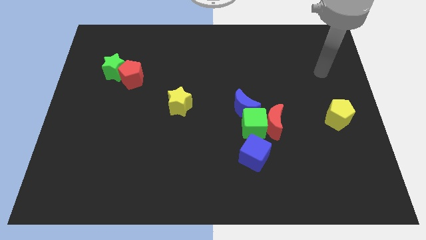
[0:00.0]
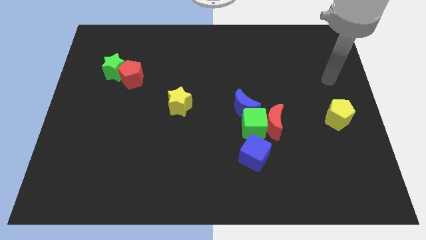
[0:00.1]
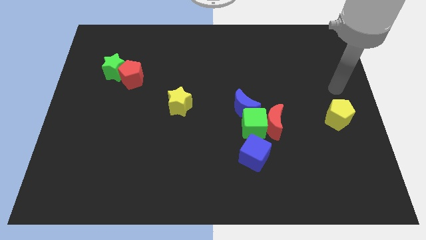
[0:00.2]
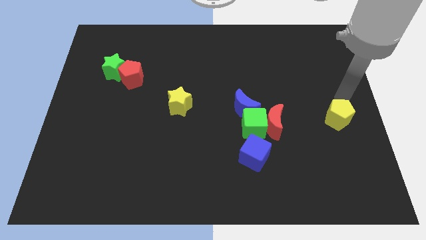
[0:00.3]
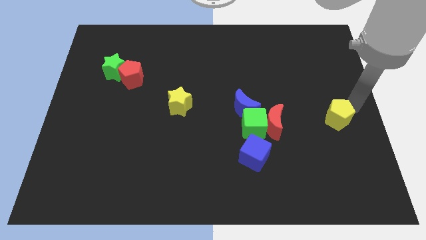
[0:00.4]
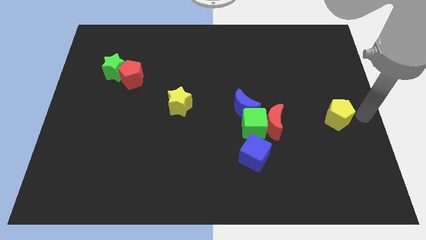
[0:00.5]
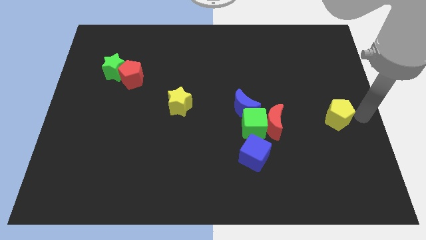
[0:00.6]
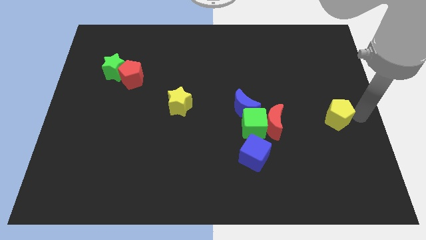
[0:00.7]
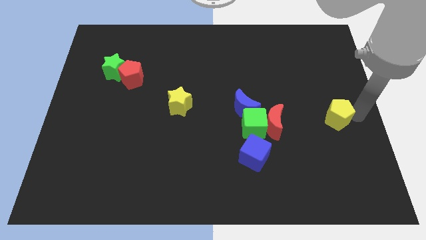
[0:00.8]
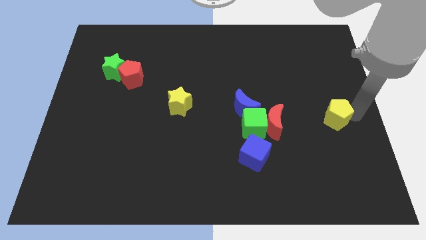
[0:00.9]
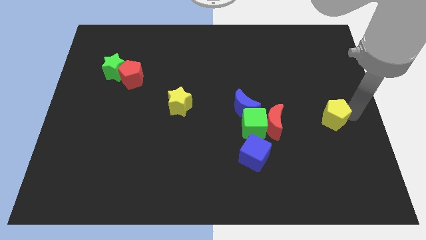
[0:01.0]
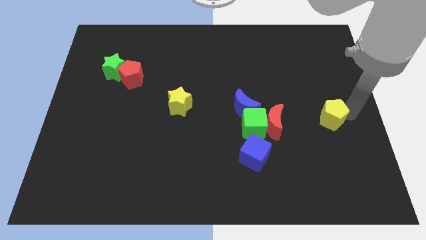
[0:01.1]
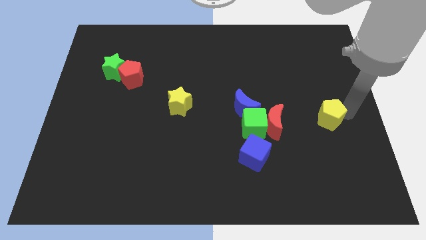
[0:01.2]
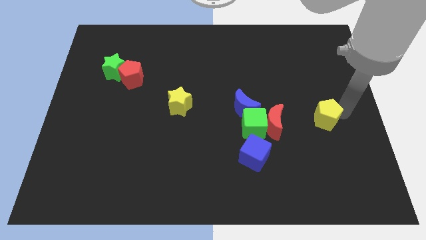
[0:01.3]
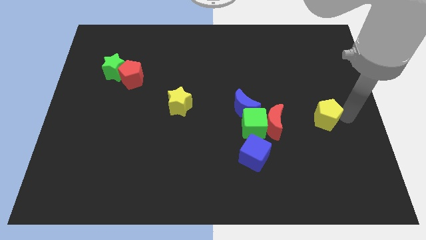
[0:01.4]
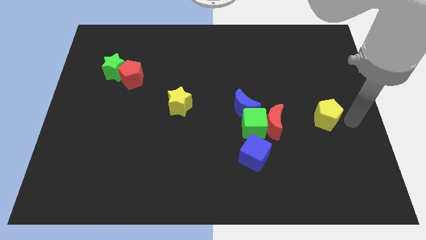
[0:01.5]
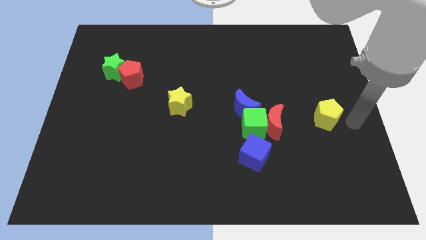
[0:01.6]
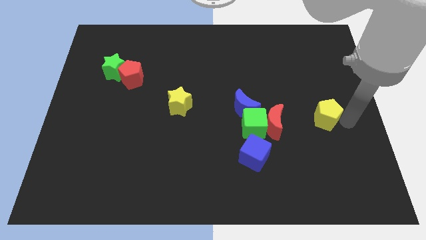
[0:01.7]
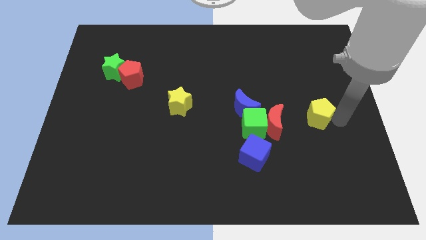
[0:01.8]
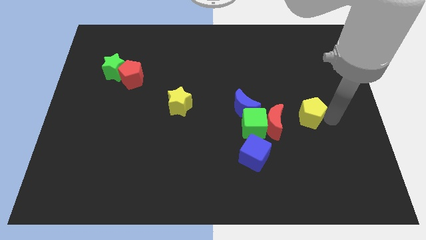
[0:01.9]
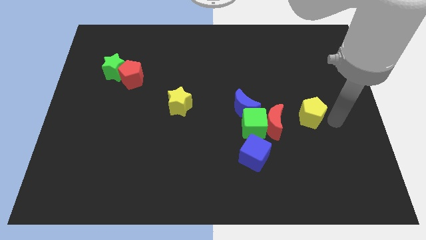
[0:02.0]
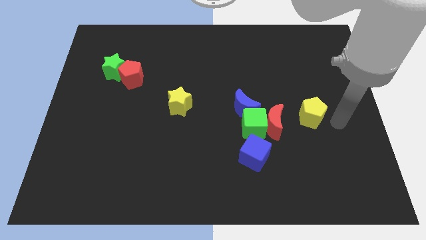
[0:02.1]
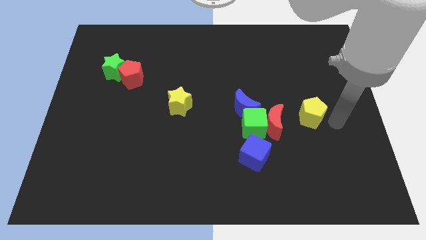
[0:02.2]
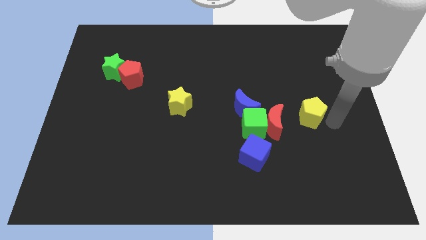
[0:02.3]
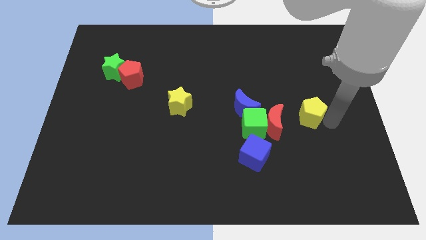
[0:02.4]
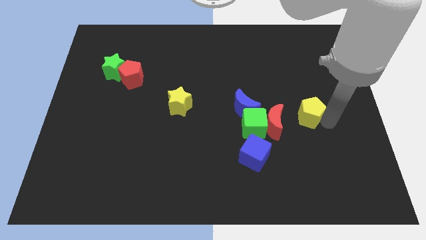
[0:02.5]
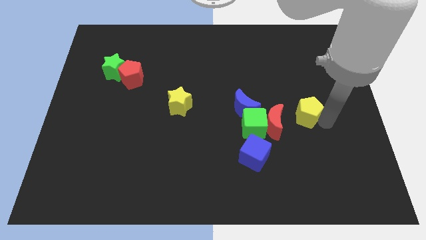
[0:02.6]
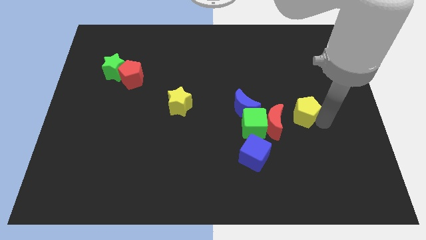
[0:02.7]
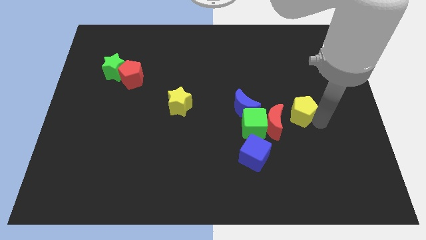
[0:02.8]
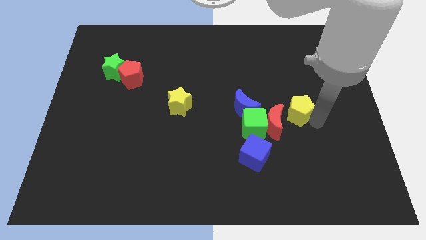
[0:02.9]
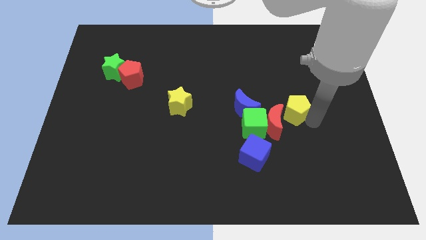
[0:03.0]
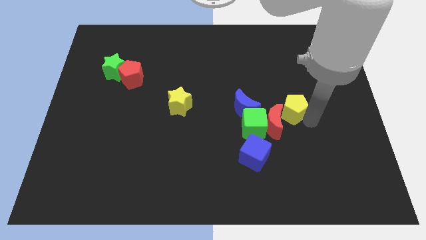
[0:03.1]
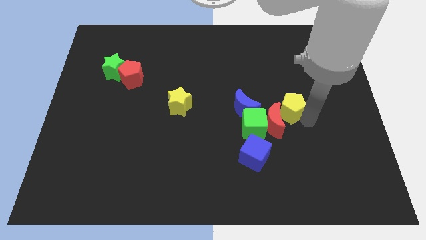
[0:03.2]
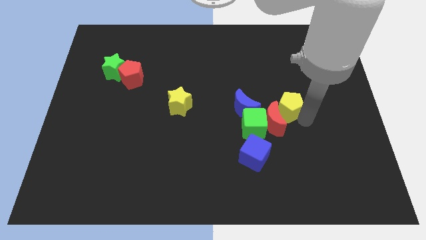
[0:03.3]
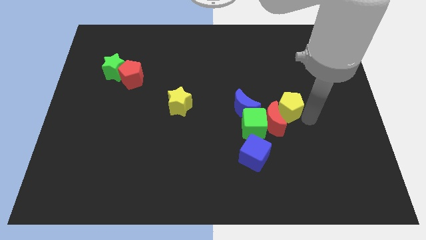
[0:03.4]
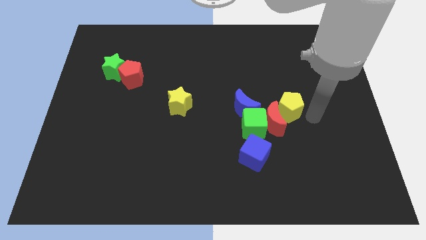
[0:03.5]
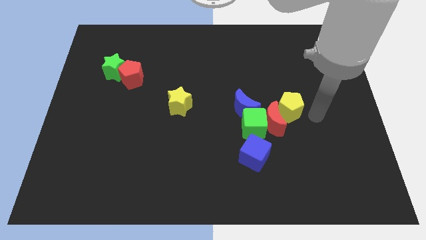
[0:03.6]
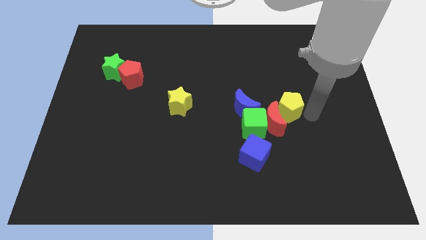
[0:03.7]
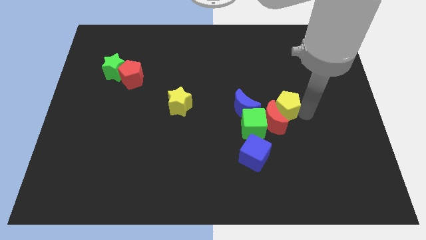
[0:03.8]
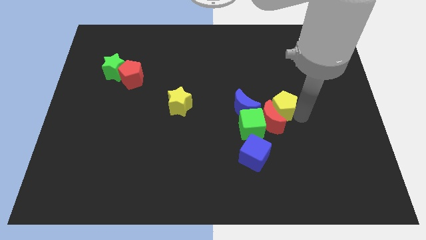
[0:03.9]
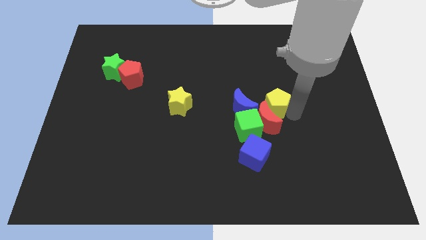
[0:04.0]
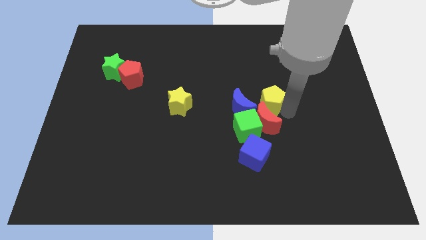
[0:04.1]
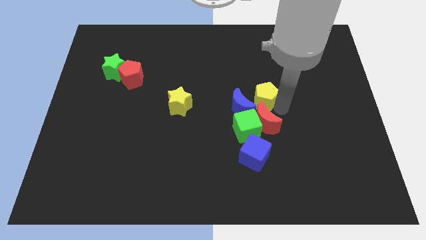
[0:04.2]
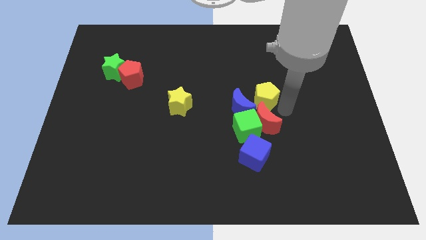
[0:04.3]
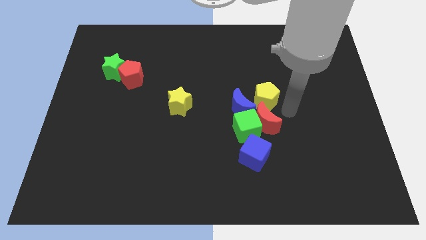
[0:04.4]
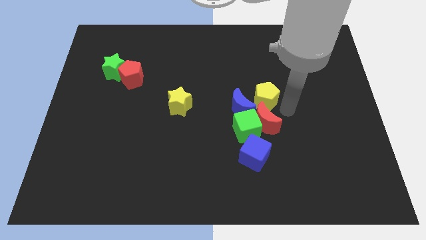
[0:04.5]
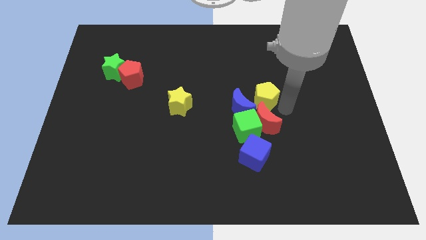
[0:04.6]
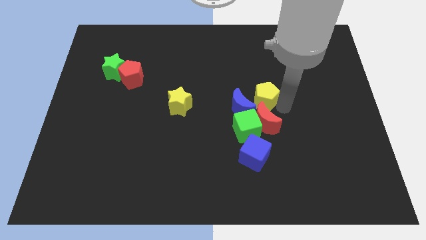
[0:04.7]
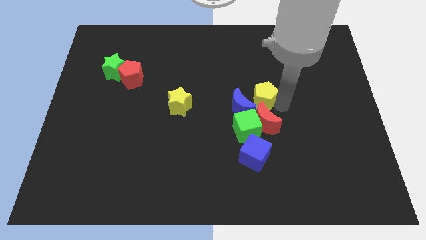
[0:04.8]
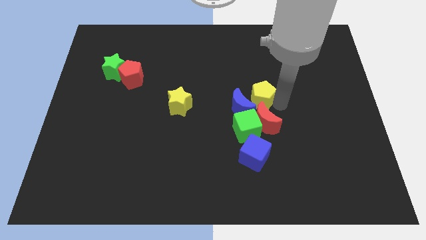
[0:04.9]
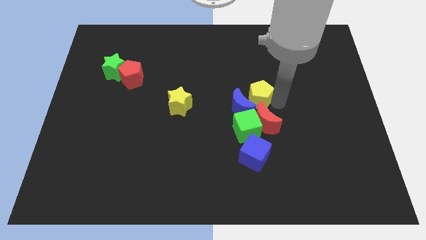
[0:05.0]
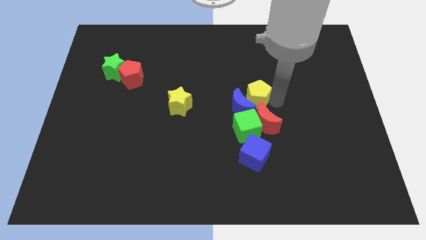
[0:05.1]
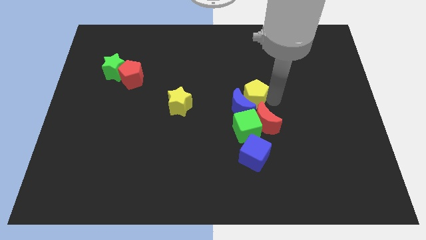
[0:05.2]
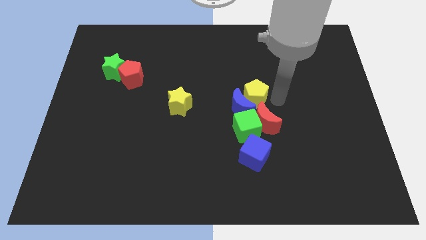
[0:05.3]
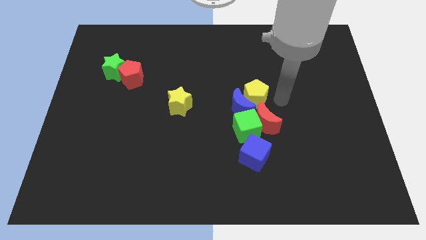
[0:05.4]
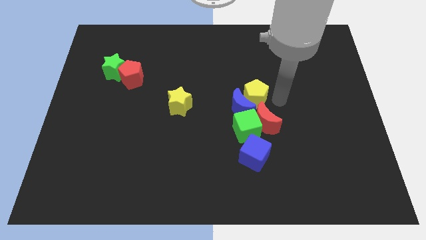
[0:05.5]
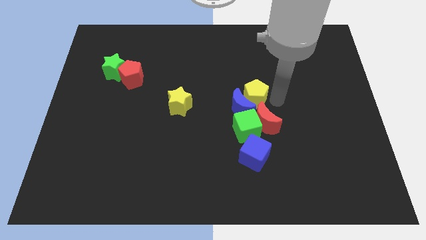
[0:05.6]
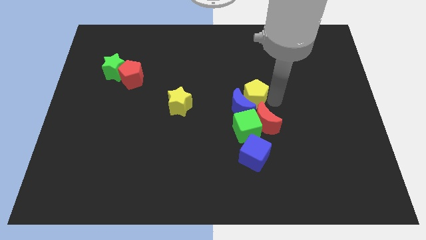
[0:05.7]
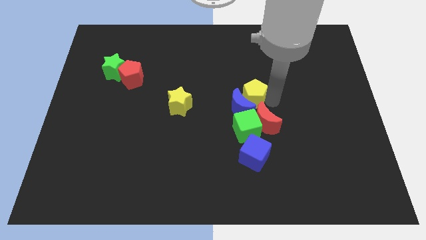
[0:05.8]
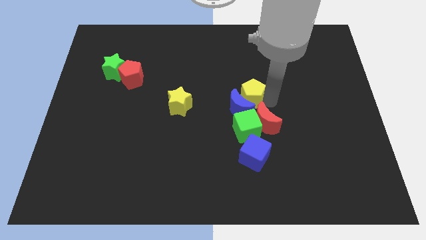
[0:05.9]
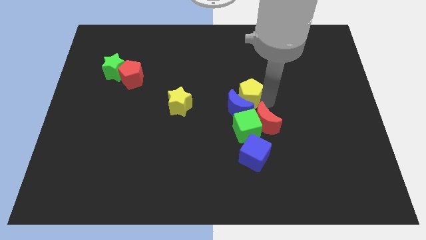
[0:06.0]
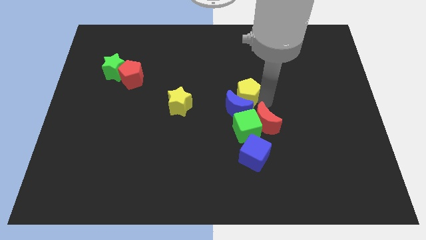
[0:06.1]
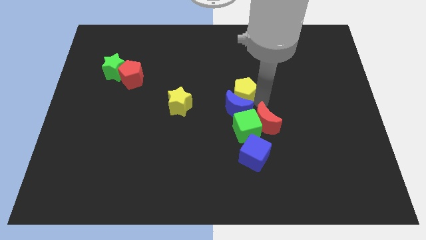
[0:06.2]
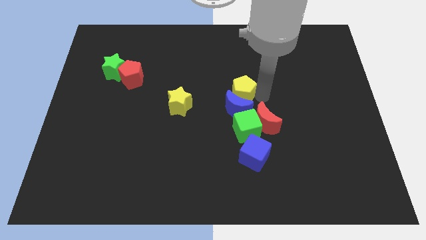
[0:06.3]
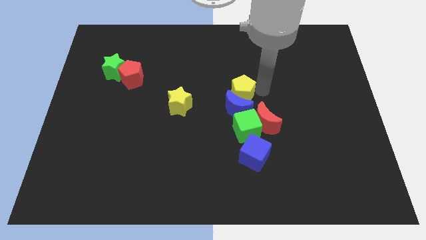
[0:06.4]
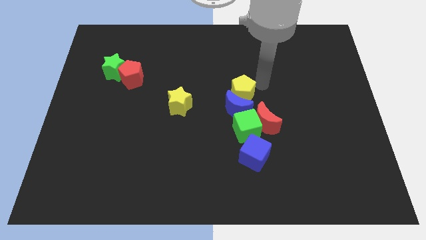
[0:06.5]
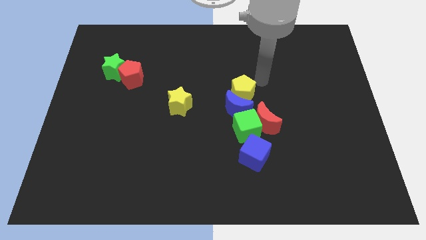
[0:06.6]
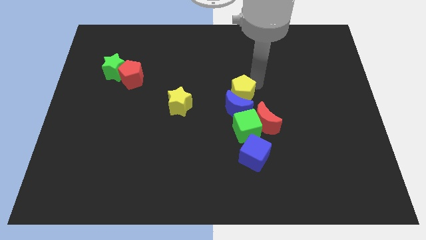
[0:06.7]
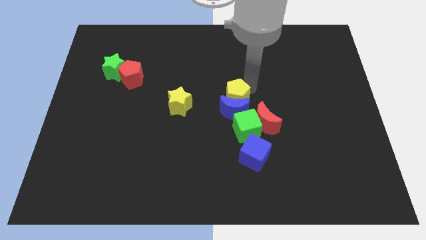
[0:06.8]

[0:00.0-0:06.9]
push the yellow pentagon left

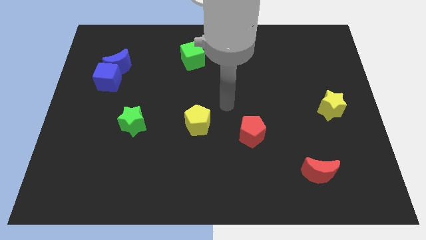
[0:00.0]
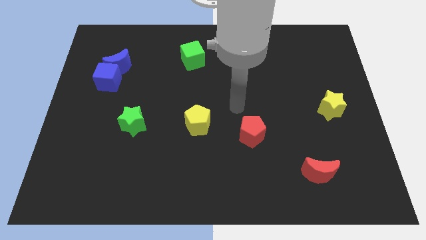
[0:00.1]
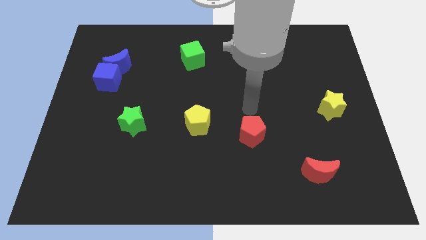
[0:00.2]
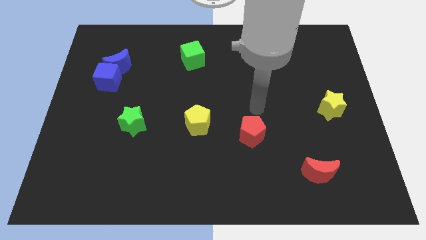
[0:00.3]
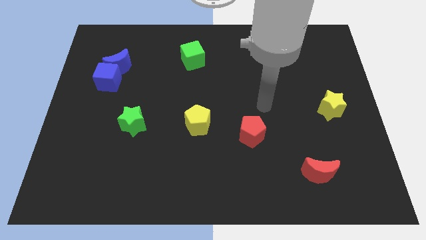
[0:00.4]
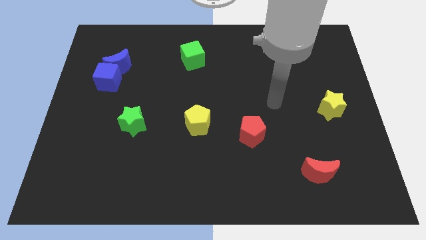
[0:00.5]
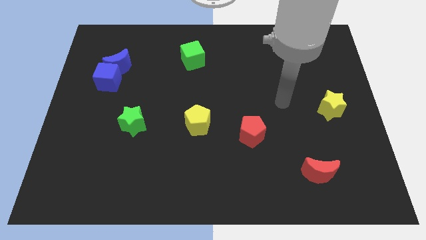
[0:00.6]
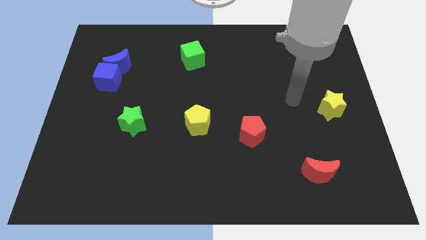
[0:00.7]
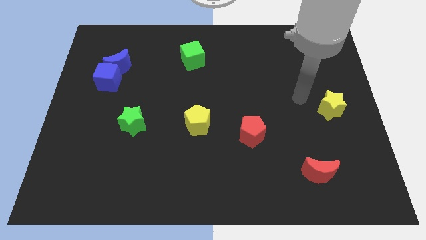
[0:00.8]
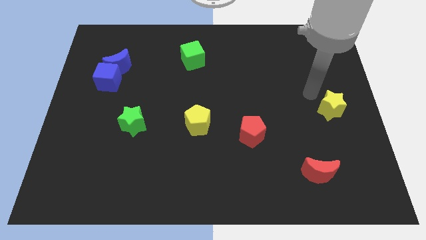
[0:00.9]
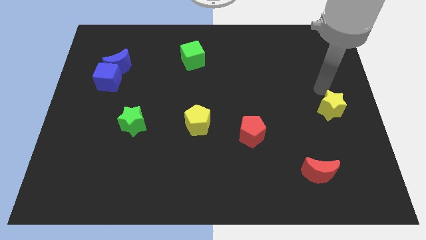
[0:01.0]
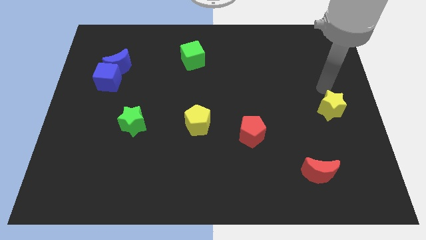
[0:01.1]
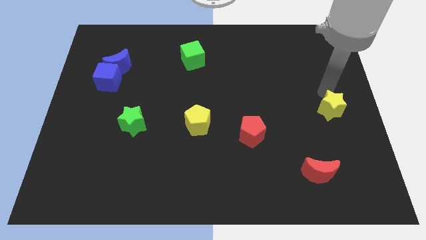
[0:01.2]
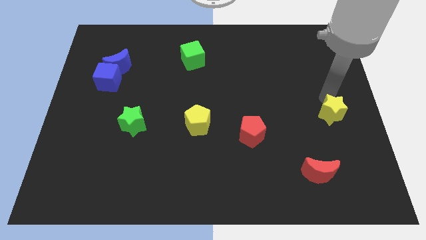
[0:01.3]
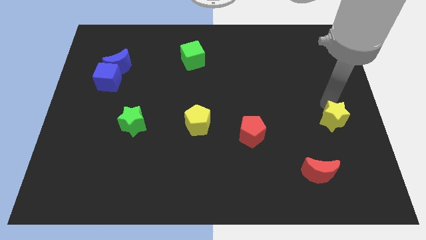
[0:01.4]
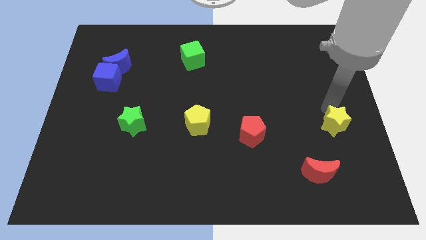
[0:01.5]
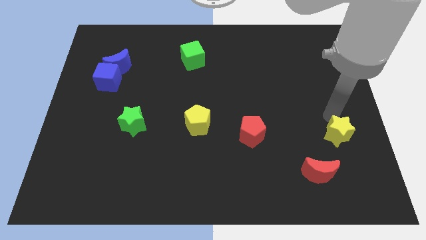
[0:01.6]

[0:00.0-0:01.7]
slightly push the yellow star down
